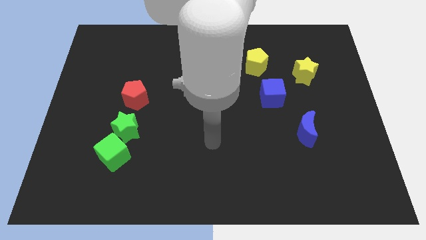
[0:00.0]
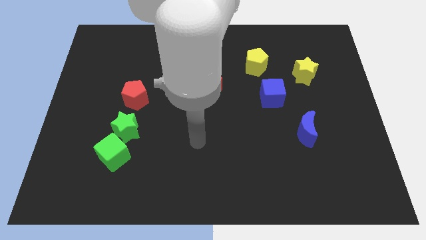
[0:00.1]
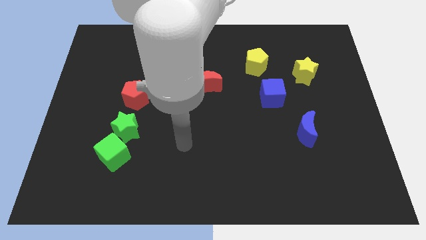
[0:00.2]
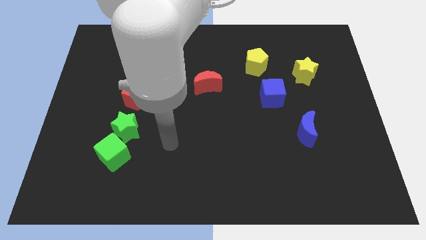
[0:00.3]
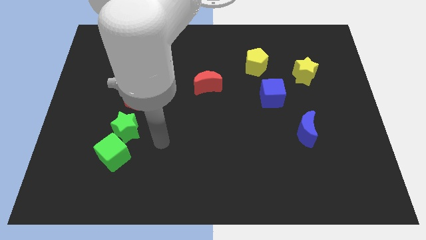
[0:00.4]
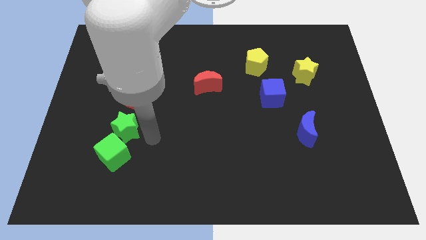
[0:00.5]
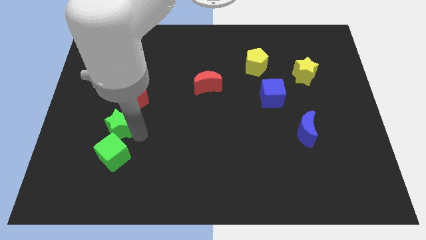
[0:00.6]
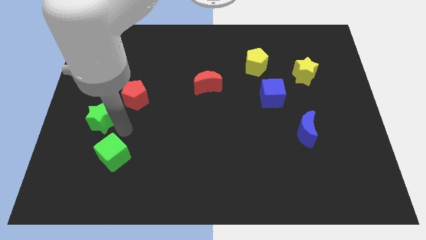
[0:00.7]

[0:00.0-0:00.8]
separate the green cube from the green star

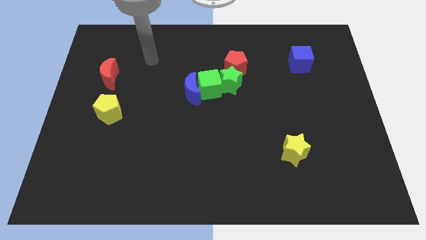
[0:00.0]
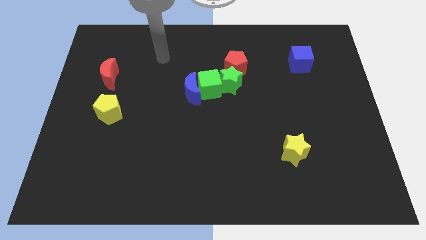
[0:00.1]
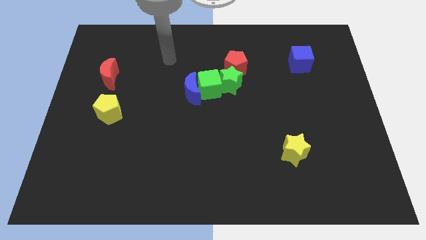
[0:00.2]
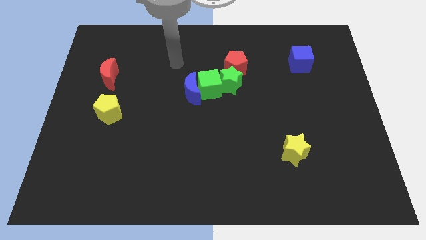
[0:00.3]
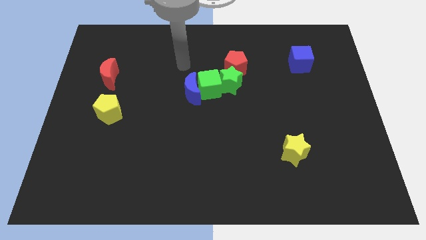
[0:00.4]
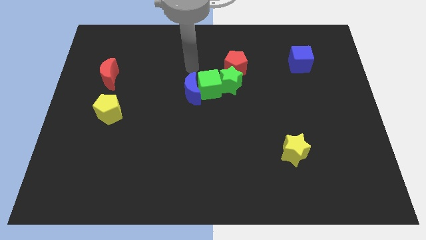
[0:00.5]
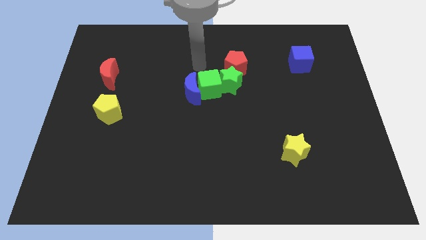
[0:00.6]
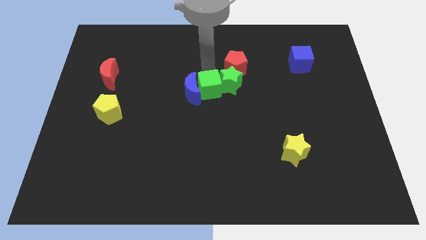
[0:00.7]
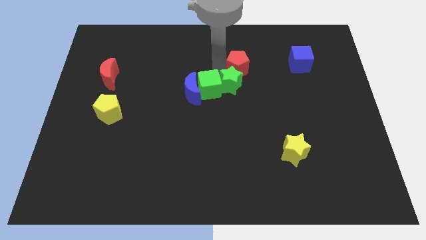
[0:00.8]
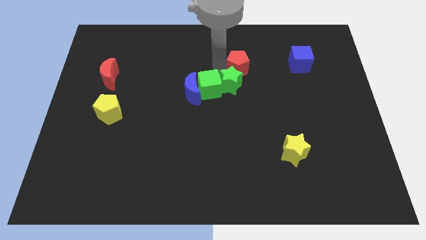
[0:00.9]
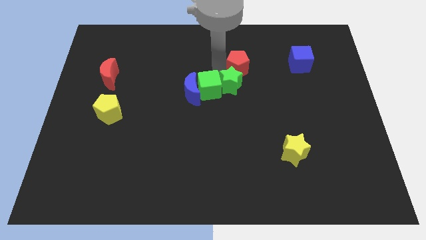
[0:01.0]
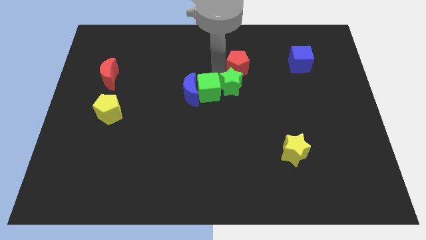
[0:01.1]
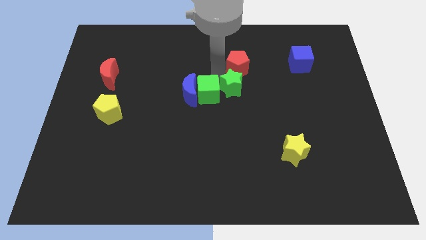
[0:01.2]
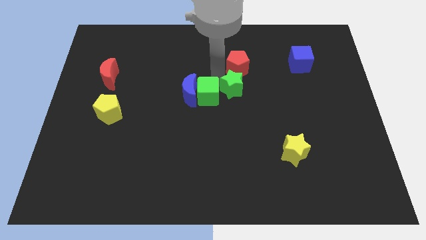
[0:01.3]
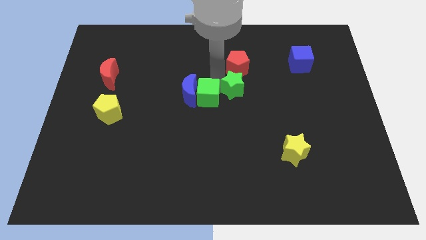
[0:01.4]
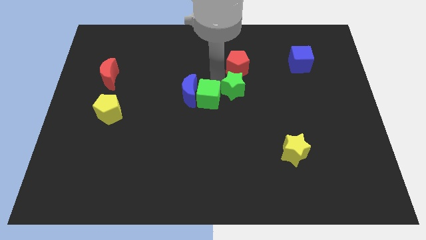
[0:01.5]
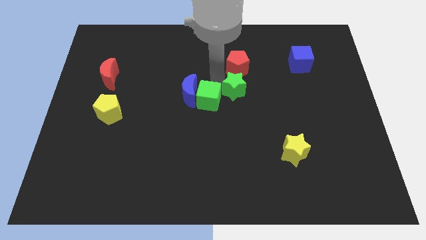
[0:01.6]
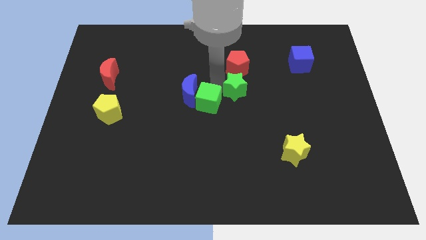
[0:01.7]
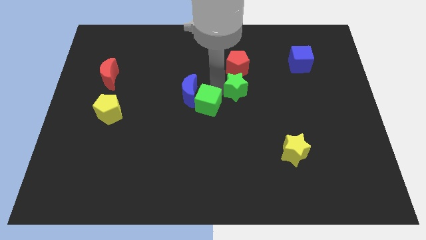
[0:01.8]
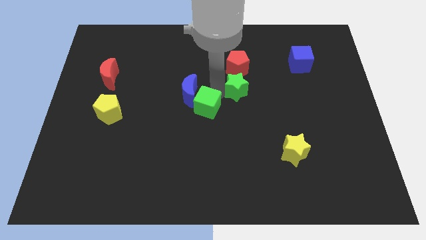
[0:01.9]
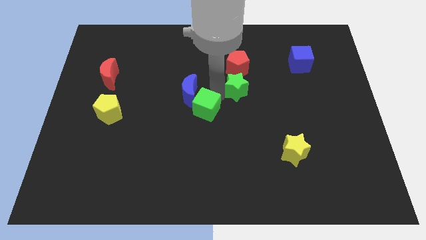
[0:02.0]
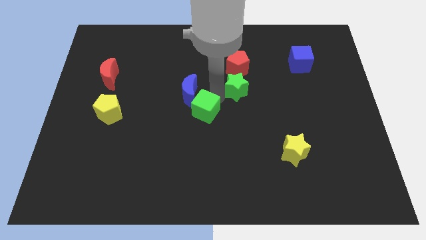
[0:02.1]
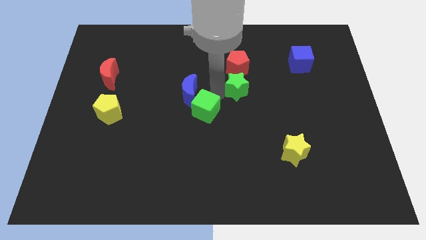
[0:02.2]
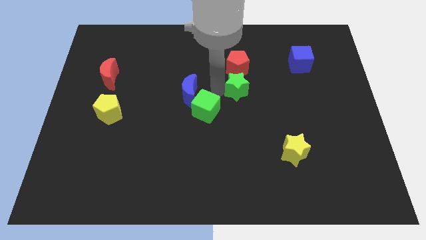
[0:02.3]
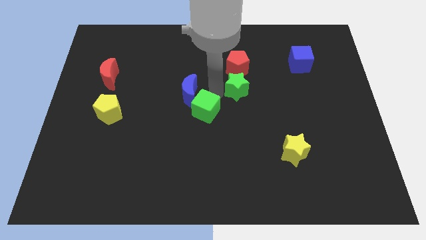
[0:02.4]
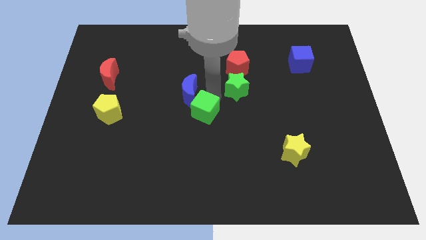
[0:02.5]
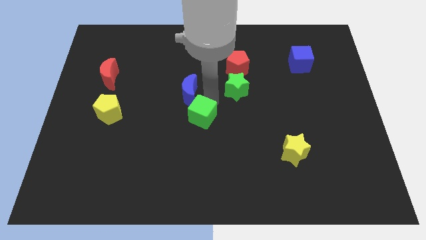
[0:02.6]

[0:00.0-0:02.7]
move the green cube away from the blue moon, green star, and red pentagon

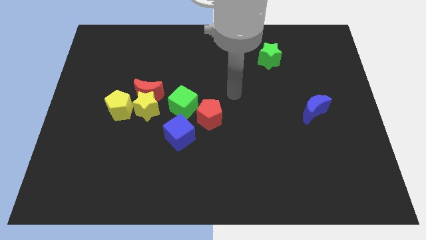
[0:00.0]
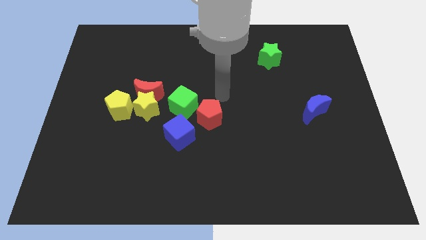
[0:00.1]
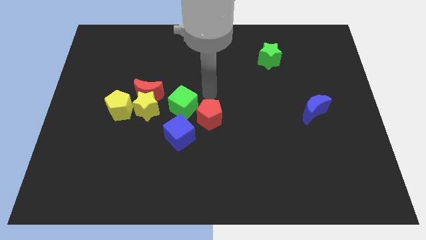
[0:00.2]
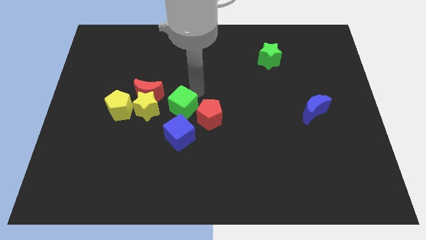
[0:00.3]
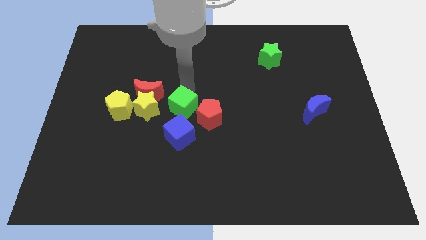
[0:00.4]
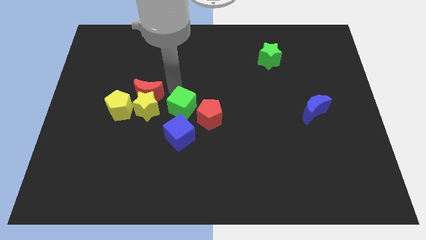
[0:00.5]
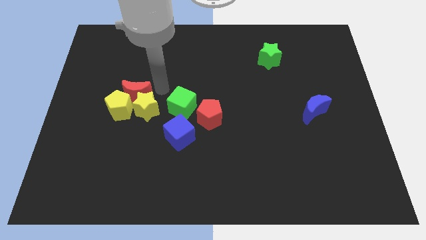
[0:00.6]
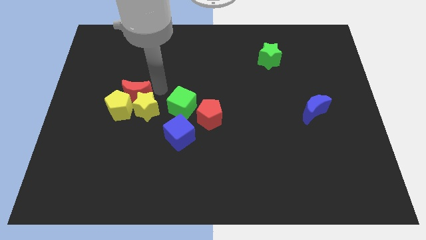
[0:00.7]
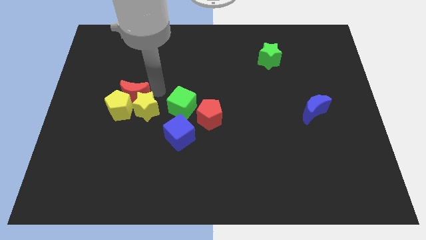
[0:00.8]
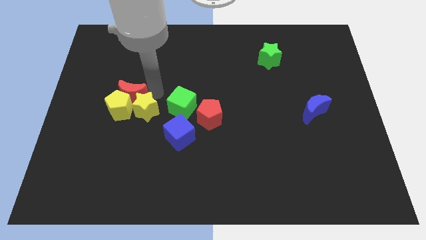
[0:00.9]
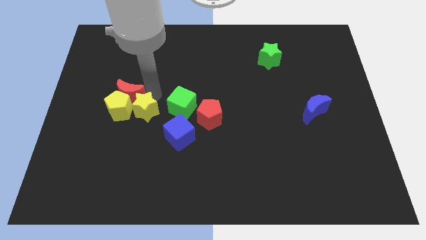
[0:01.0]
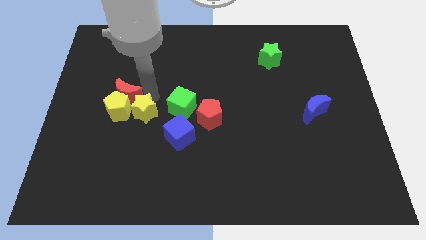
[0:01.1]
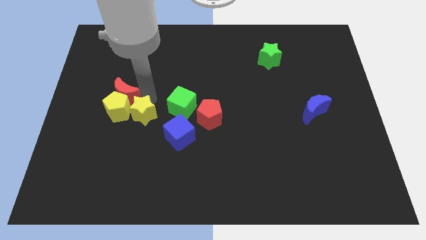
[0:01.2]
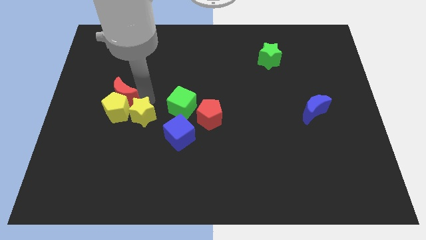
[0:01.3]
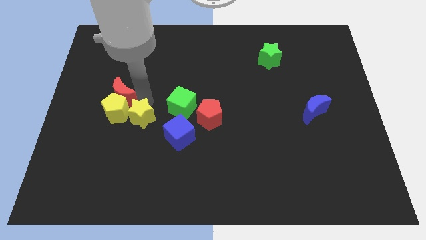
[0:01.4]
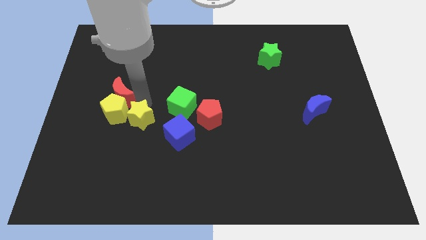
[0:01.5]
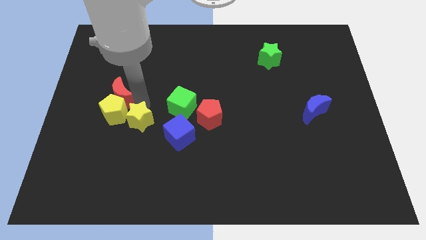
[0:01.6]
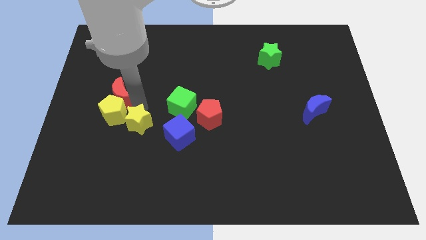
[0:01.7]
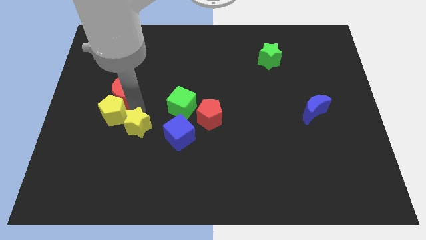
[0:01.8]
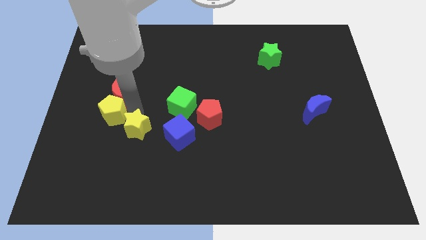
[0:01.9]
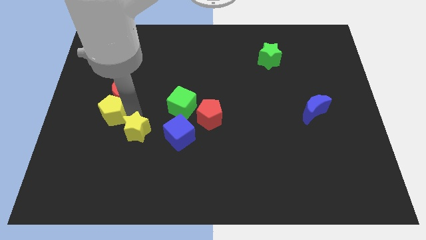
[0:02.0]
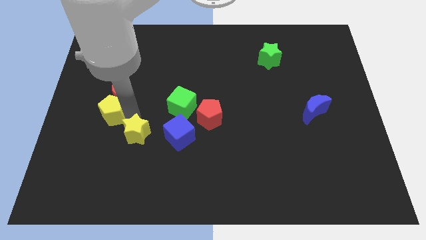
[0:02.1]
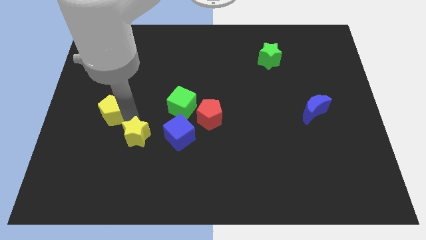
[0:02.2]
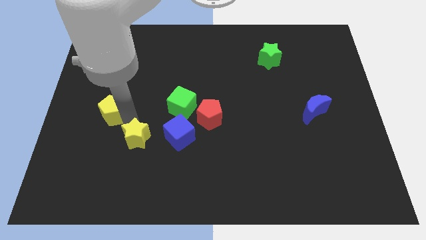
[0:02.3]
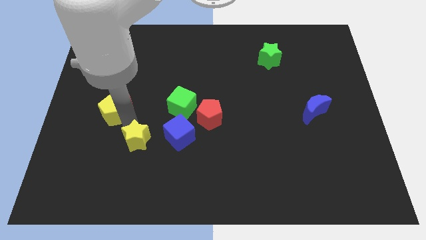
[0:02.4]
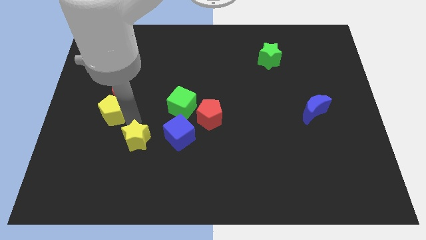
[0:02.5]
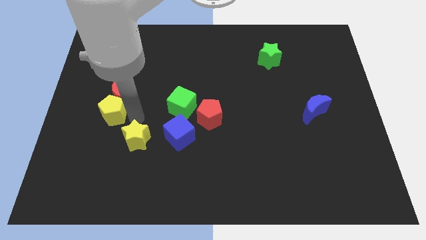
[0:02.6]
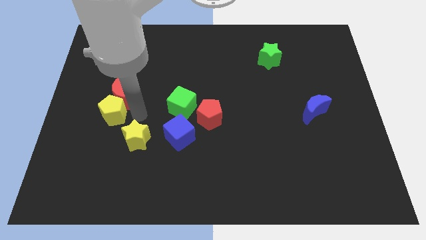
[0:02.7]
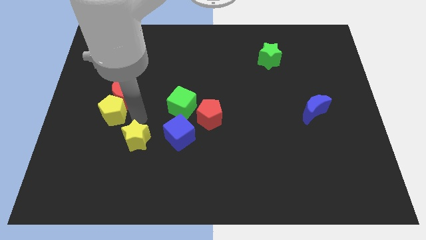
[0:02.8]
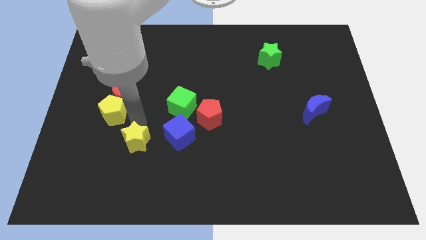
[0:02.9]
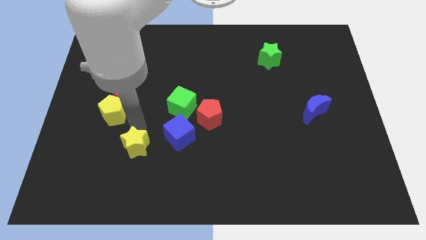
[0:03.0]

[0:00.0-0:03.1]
pull the yellow star apart from the clump

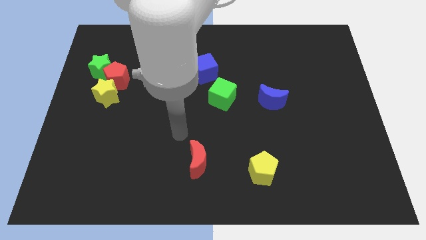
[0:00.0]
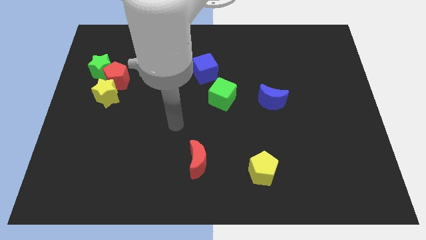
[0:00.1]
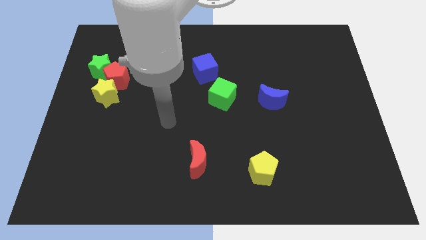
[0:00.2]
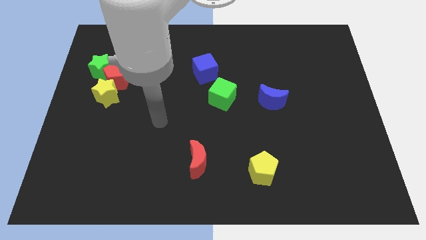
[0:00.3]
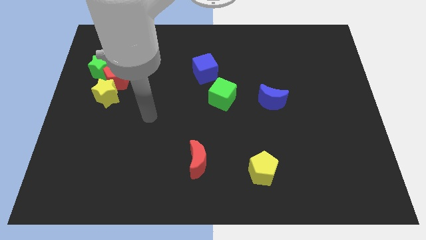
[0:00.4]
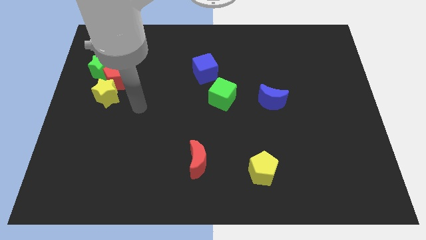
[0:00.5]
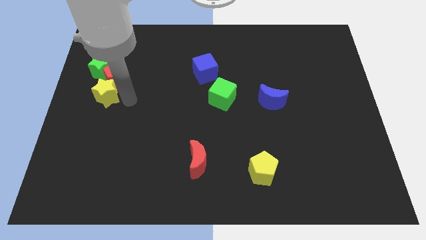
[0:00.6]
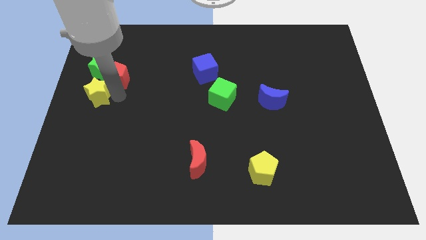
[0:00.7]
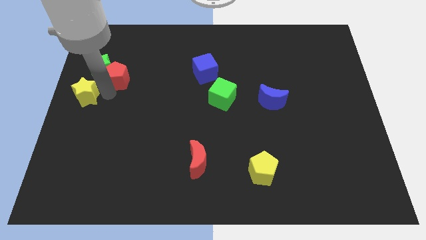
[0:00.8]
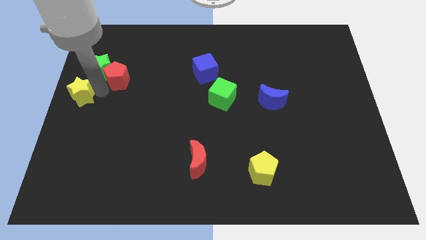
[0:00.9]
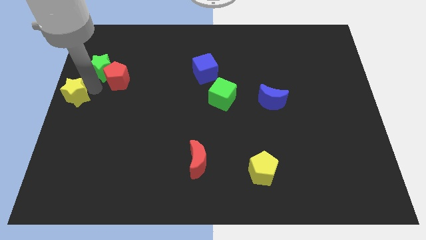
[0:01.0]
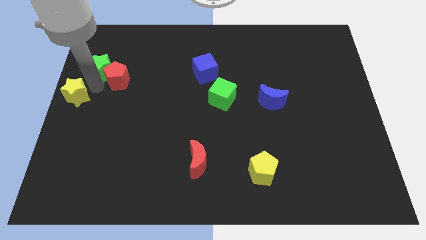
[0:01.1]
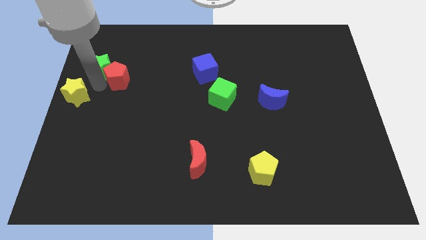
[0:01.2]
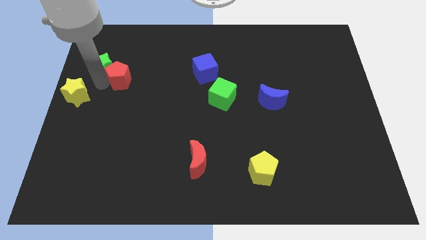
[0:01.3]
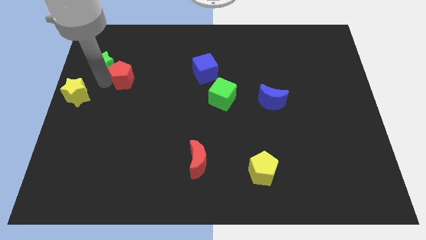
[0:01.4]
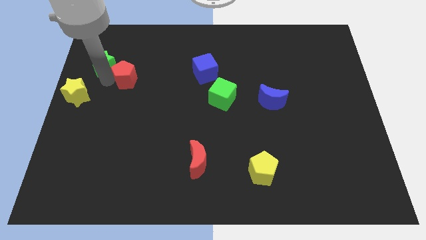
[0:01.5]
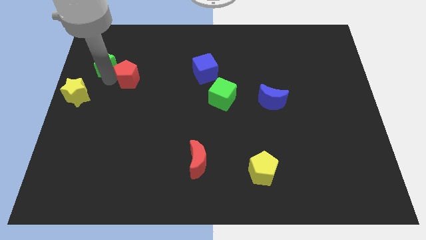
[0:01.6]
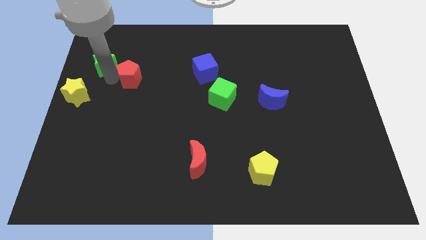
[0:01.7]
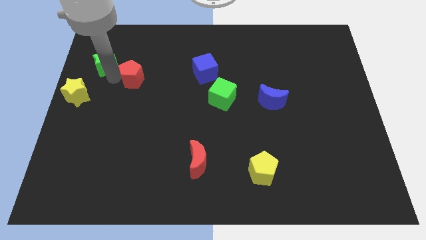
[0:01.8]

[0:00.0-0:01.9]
move the red pentagon away from the green star and yellow star

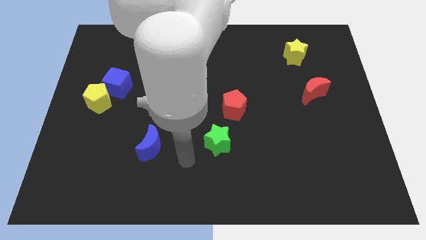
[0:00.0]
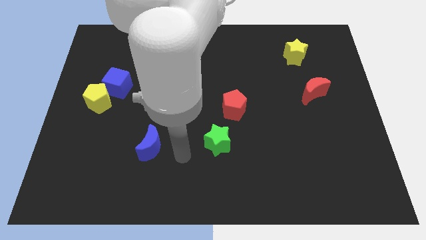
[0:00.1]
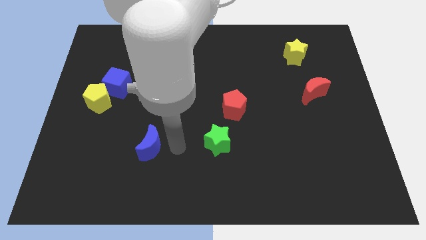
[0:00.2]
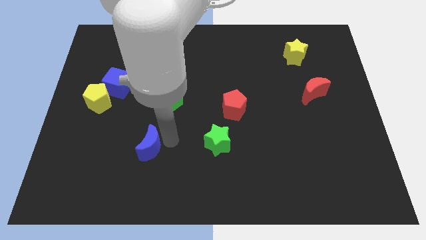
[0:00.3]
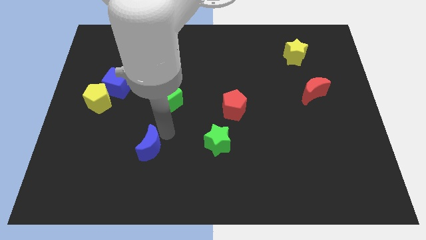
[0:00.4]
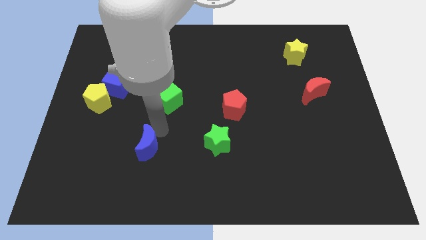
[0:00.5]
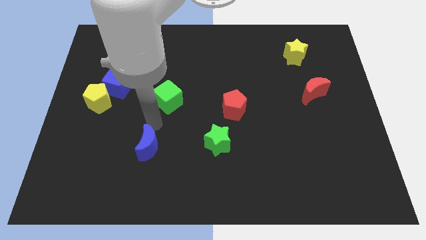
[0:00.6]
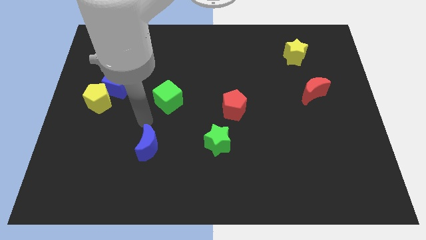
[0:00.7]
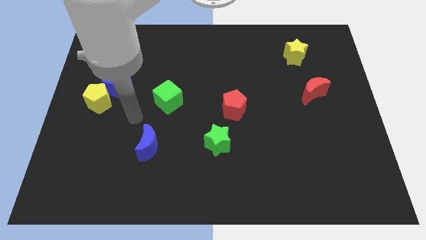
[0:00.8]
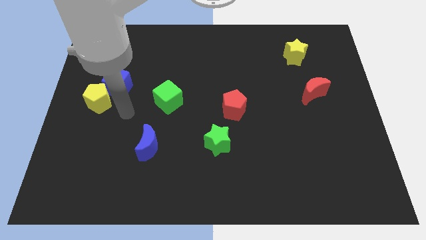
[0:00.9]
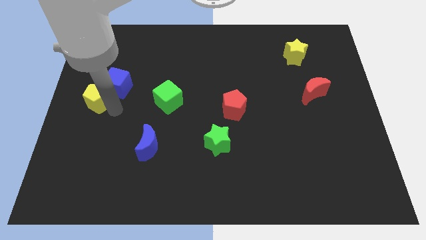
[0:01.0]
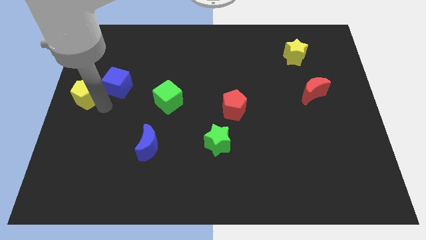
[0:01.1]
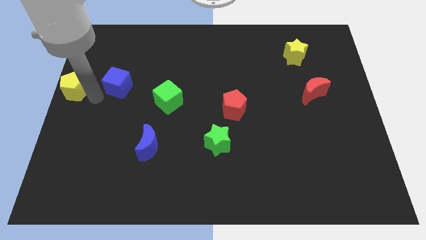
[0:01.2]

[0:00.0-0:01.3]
separate the blue cube from the yellow pentagon
